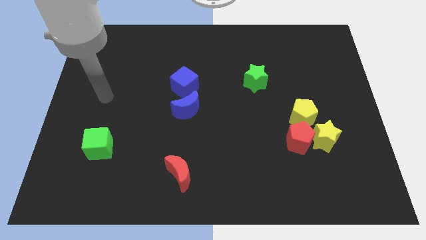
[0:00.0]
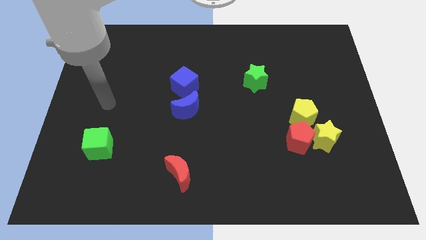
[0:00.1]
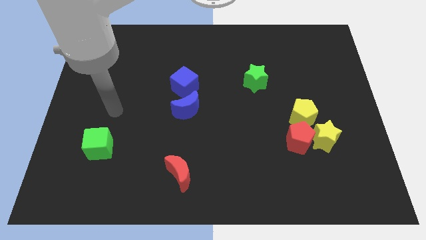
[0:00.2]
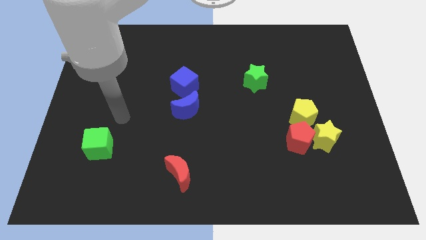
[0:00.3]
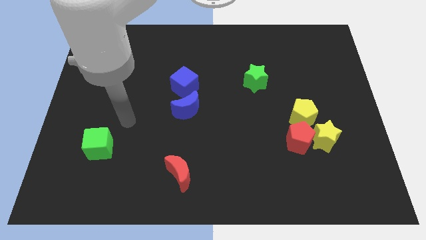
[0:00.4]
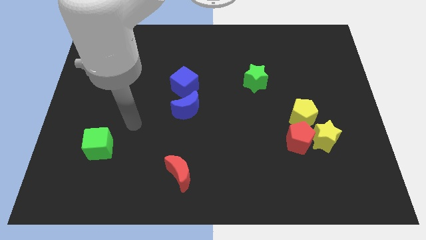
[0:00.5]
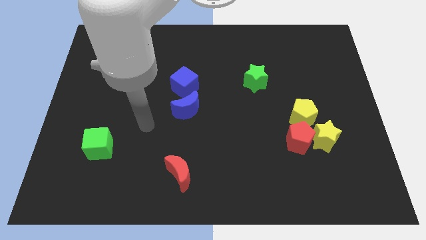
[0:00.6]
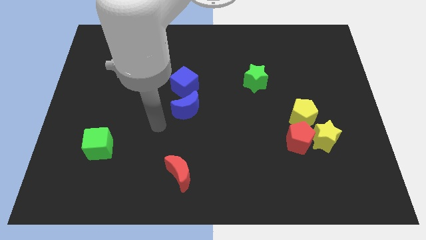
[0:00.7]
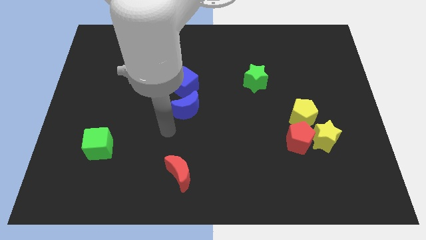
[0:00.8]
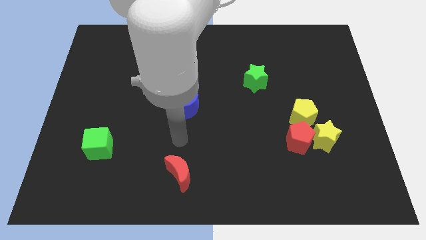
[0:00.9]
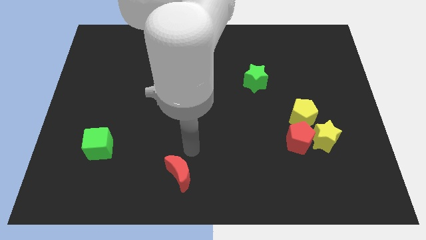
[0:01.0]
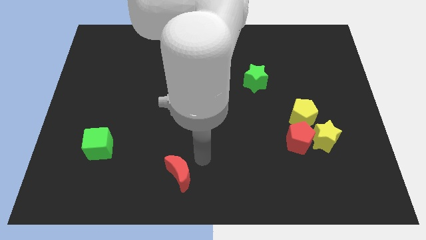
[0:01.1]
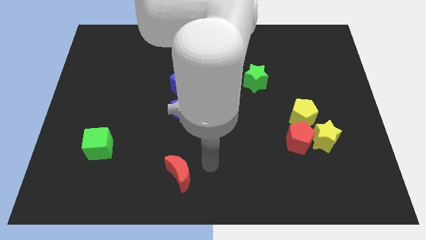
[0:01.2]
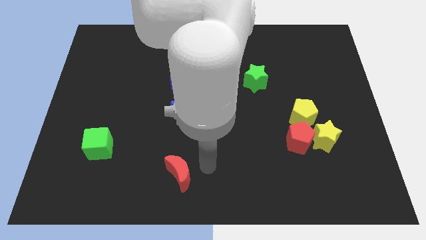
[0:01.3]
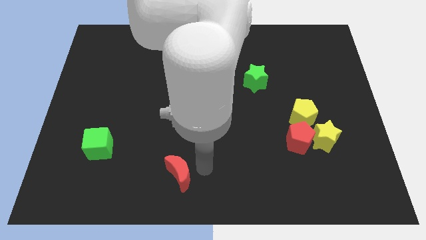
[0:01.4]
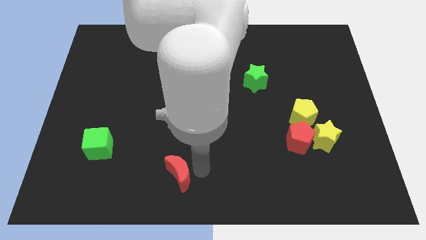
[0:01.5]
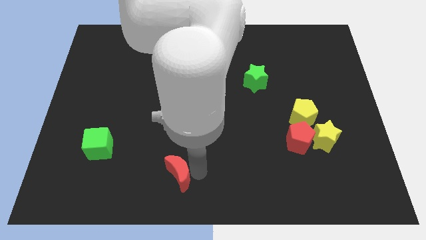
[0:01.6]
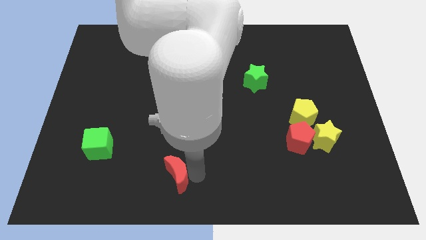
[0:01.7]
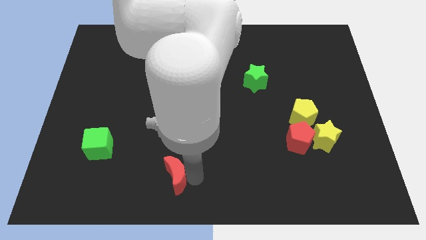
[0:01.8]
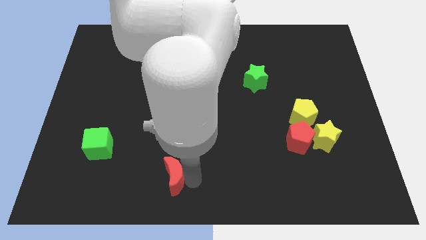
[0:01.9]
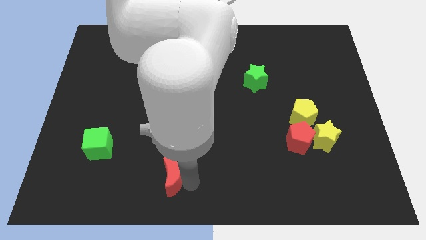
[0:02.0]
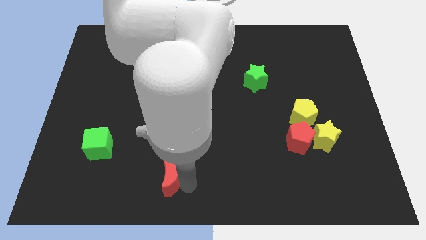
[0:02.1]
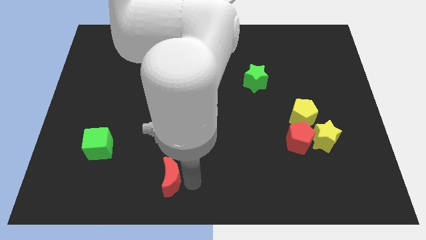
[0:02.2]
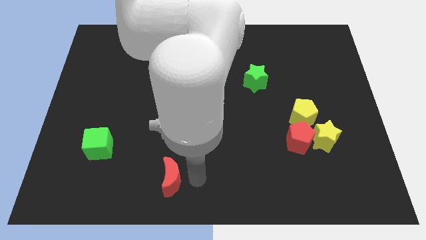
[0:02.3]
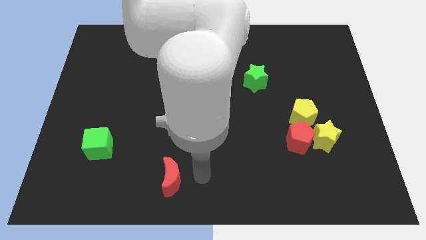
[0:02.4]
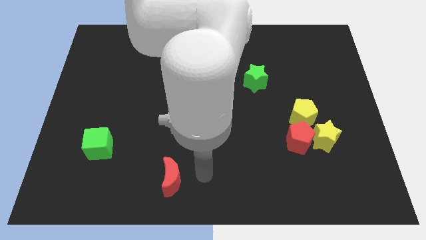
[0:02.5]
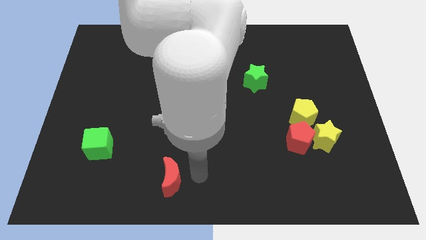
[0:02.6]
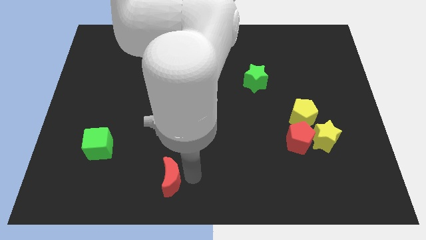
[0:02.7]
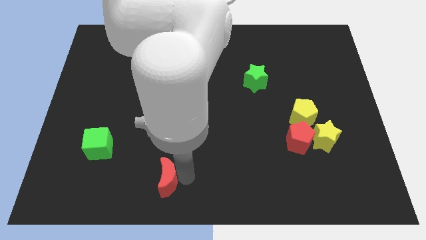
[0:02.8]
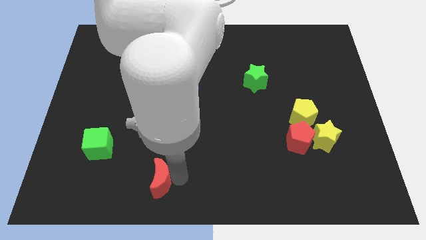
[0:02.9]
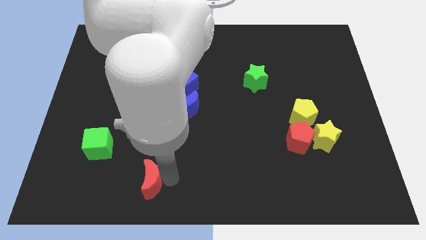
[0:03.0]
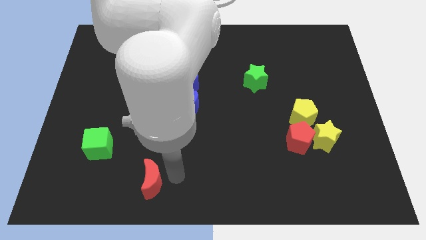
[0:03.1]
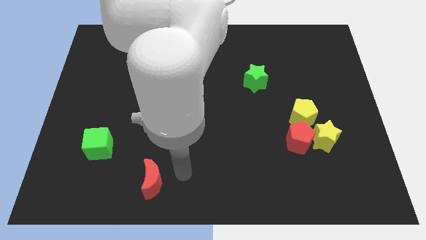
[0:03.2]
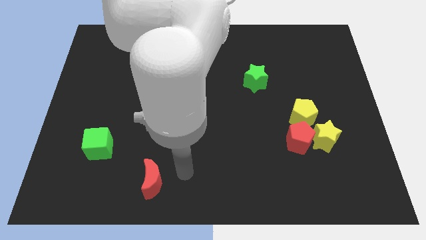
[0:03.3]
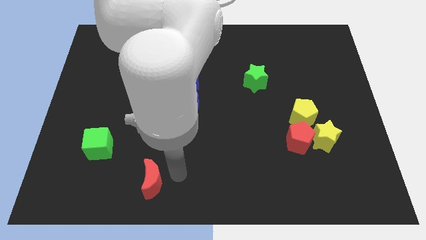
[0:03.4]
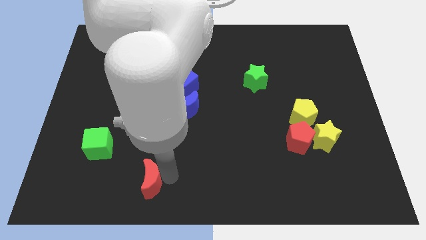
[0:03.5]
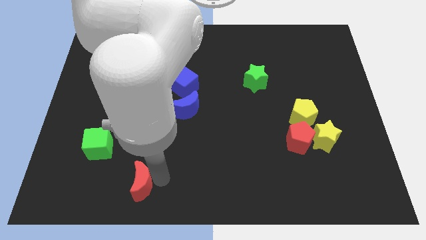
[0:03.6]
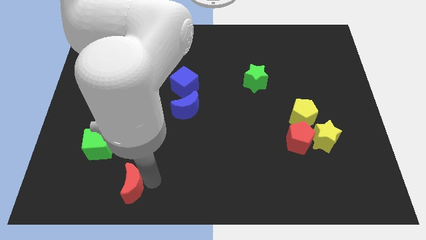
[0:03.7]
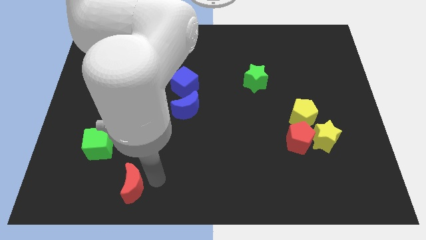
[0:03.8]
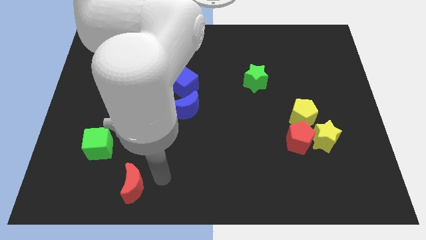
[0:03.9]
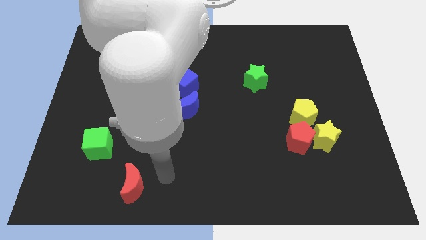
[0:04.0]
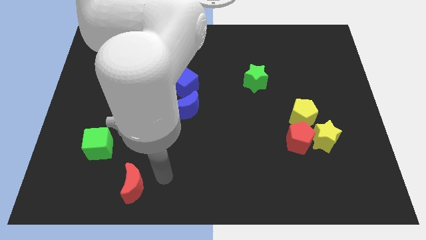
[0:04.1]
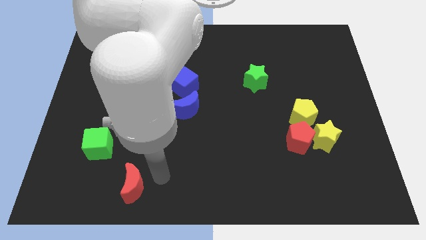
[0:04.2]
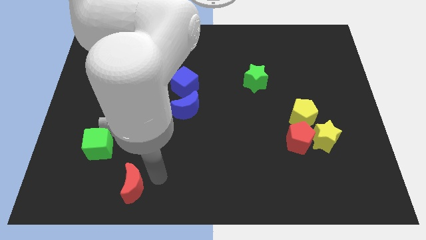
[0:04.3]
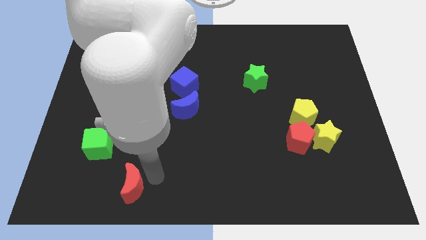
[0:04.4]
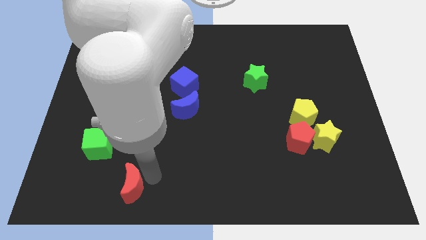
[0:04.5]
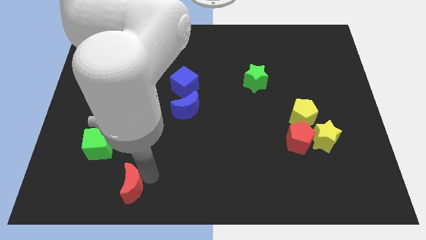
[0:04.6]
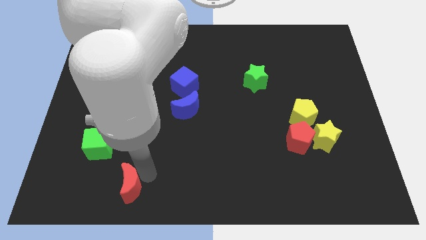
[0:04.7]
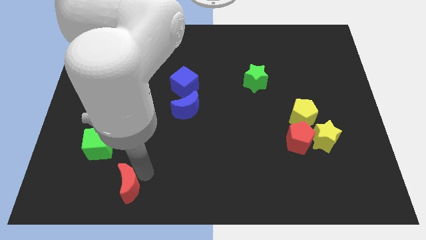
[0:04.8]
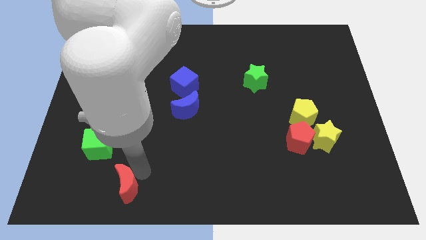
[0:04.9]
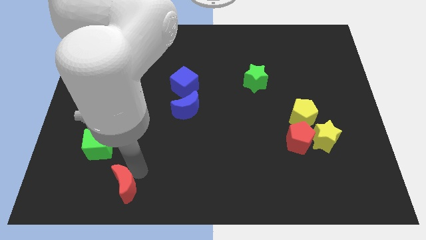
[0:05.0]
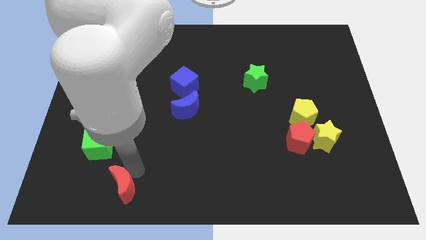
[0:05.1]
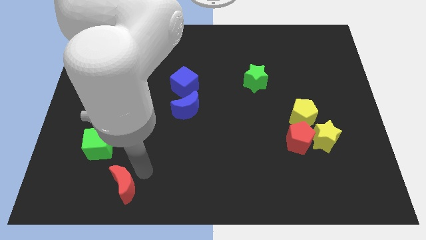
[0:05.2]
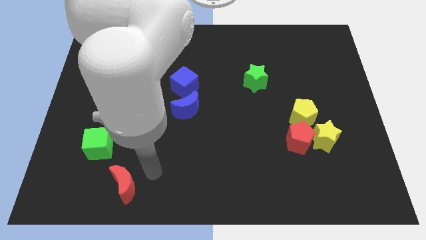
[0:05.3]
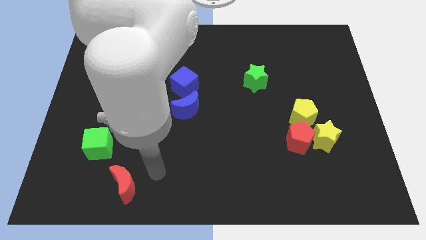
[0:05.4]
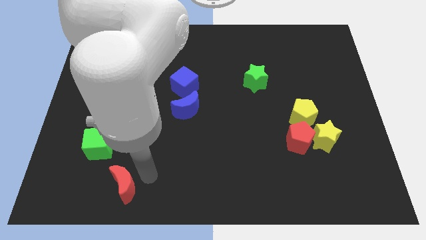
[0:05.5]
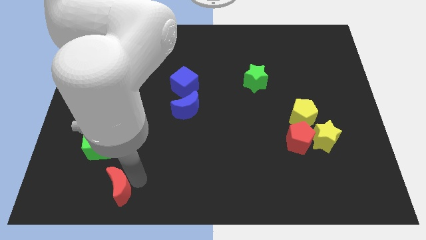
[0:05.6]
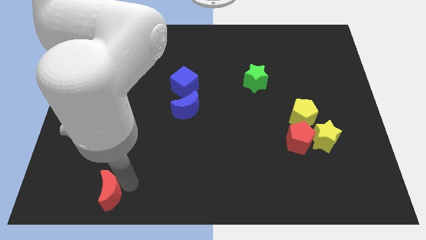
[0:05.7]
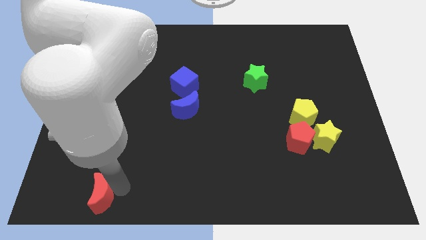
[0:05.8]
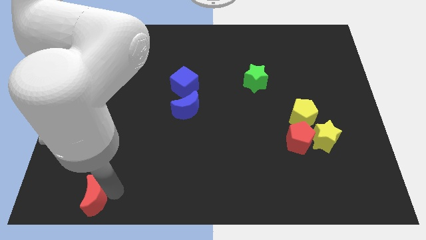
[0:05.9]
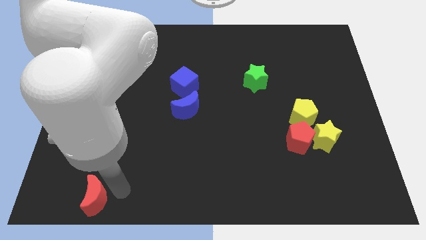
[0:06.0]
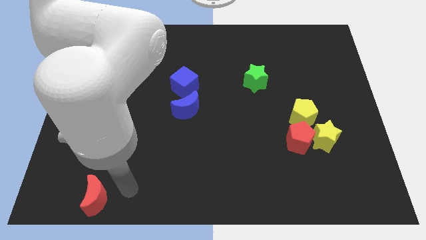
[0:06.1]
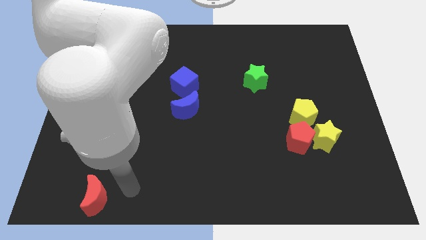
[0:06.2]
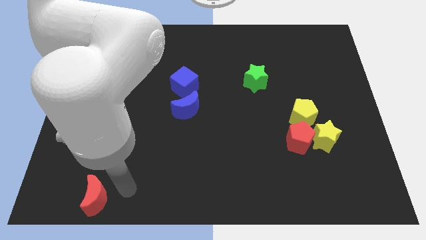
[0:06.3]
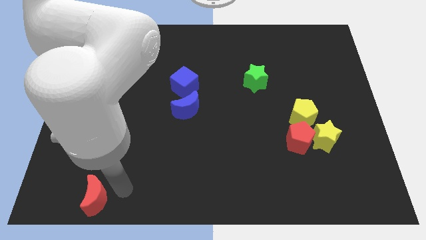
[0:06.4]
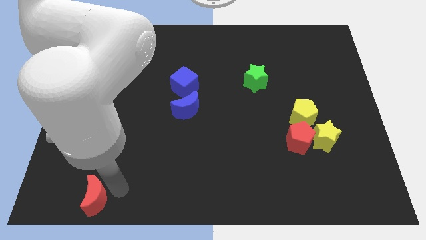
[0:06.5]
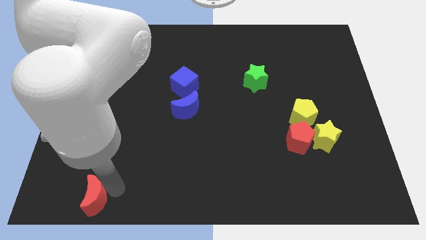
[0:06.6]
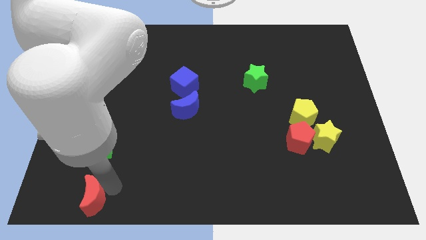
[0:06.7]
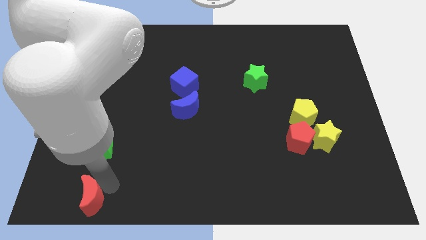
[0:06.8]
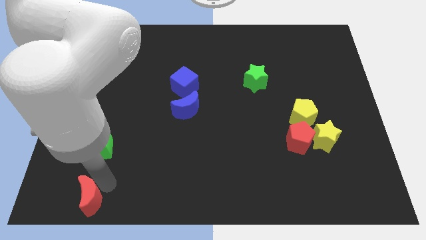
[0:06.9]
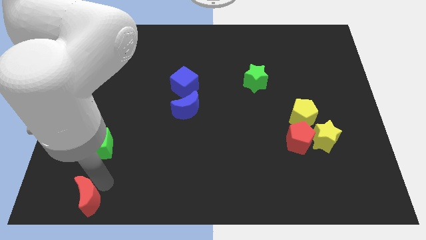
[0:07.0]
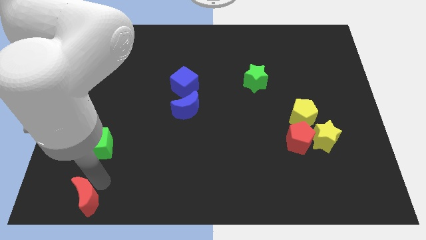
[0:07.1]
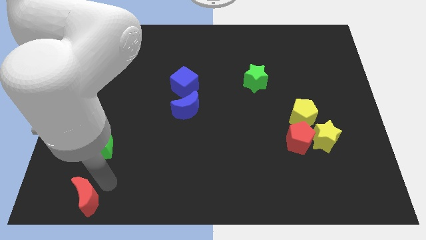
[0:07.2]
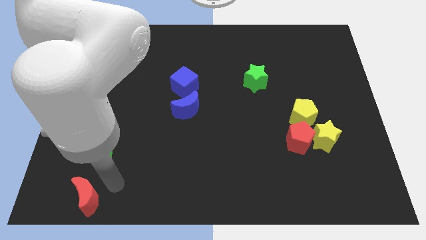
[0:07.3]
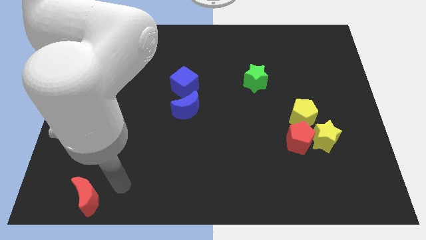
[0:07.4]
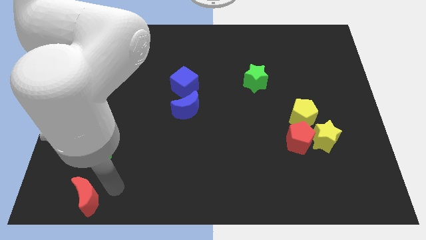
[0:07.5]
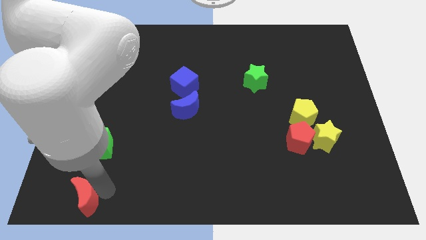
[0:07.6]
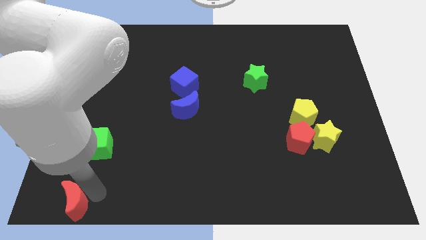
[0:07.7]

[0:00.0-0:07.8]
put the red moon to the bottom left
